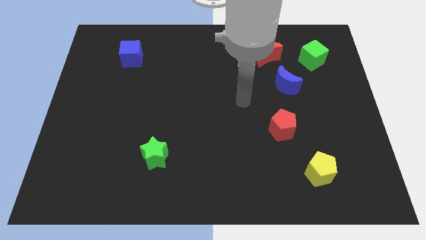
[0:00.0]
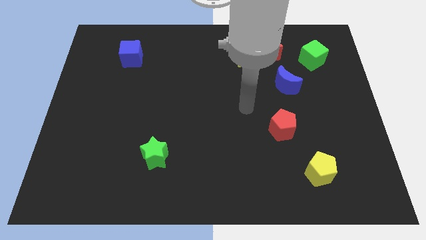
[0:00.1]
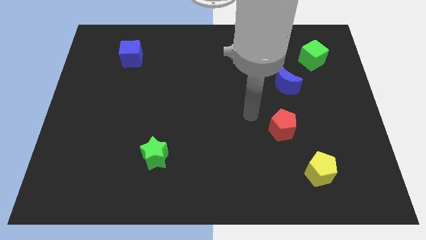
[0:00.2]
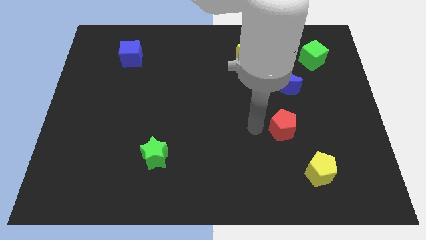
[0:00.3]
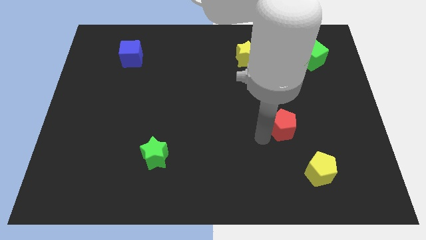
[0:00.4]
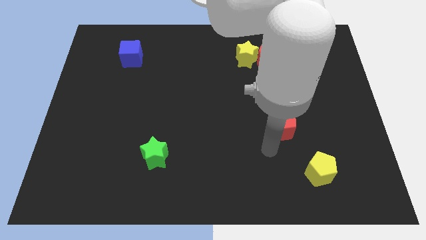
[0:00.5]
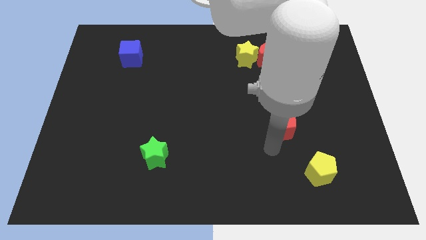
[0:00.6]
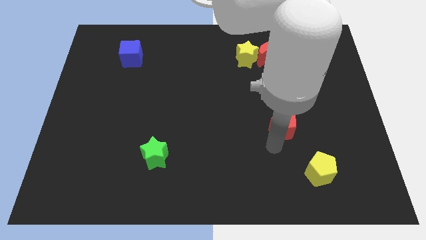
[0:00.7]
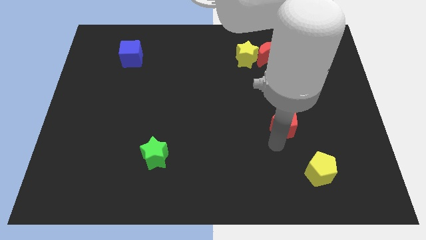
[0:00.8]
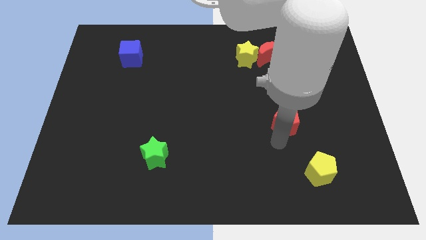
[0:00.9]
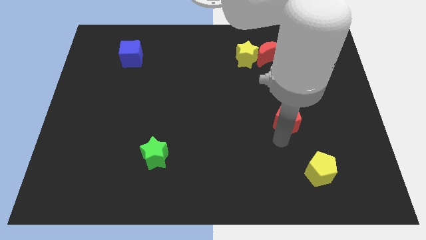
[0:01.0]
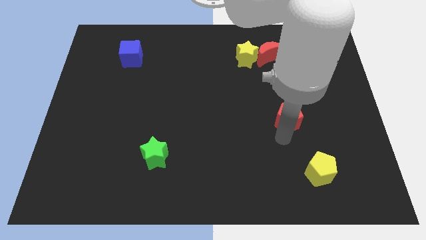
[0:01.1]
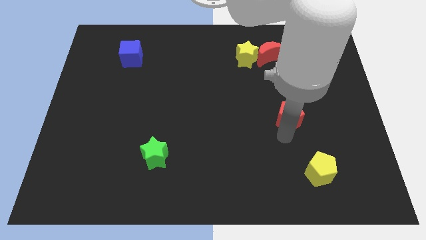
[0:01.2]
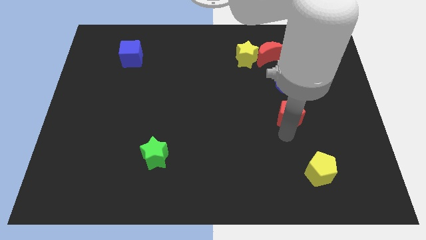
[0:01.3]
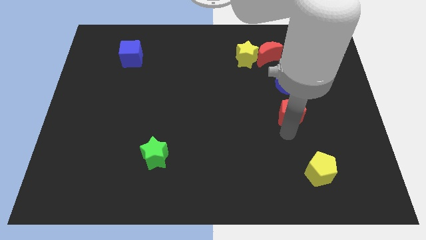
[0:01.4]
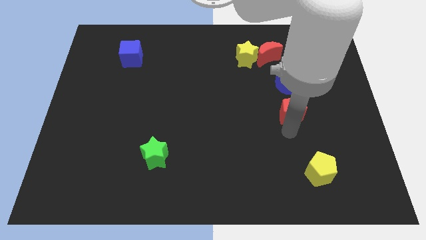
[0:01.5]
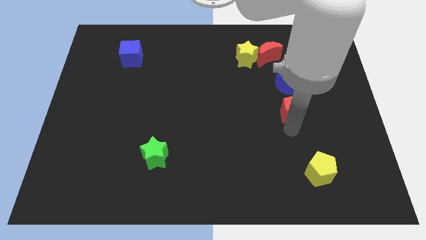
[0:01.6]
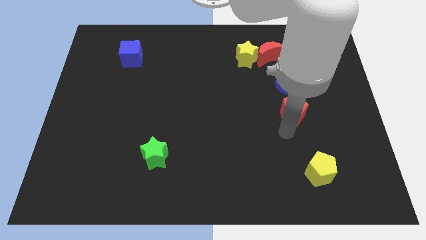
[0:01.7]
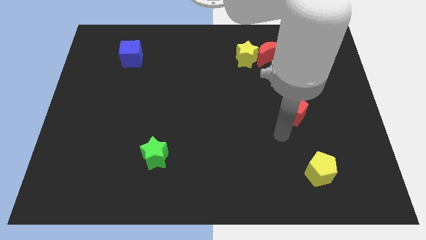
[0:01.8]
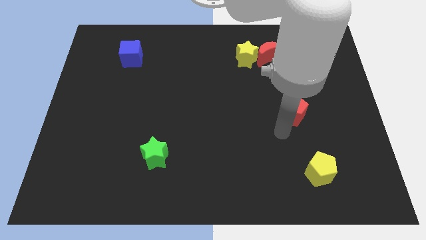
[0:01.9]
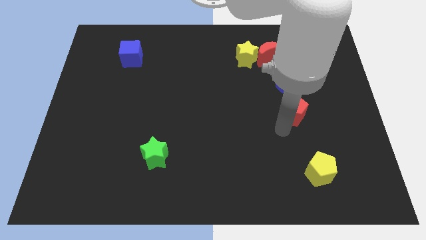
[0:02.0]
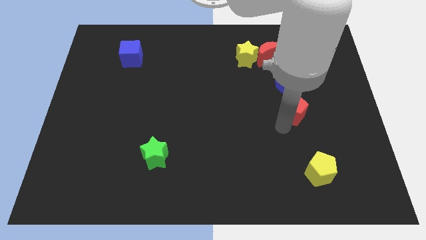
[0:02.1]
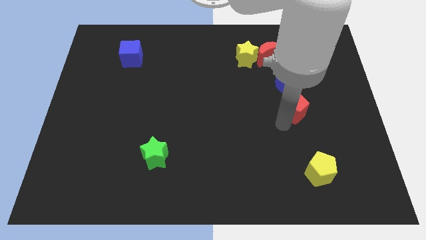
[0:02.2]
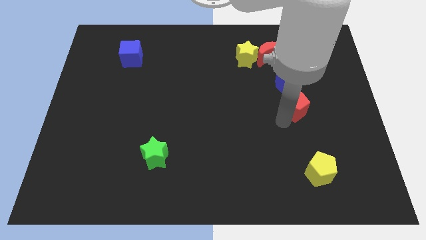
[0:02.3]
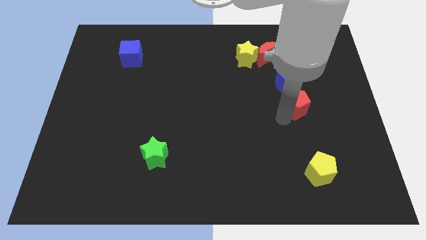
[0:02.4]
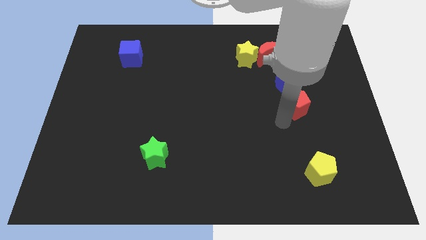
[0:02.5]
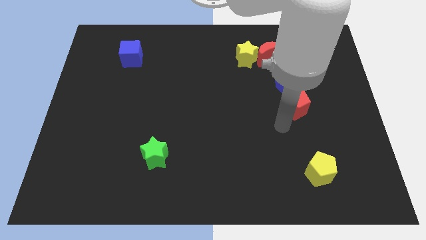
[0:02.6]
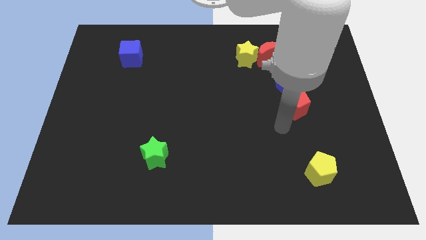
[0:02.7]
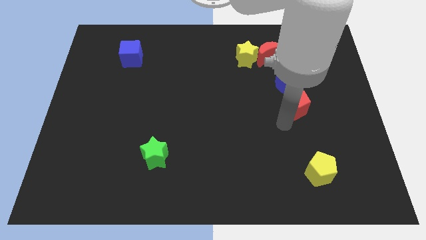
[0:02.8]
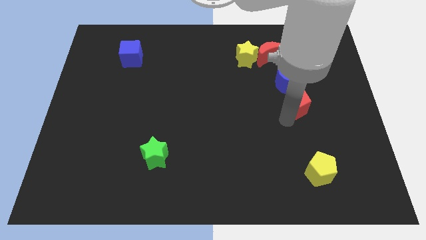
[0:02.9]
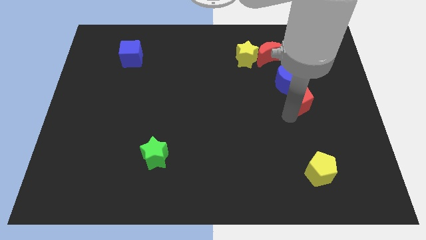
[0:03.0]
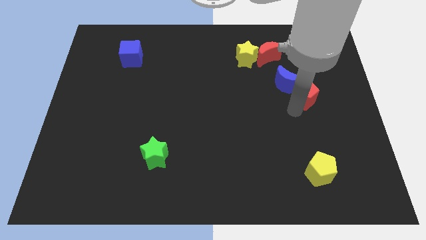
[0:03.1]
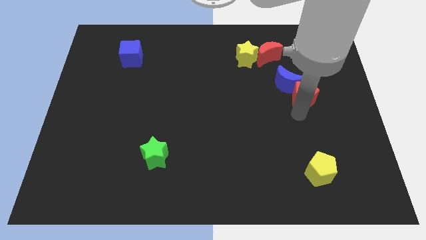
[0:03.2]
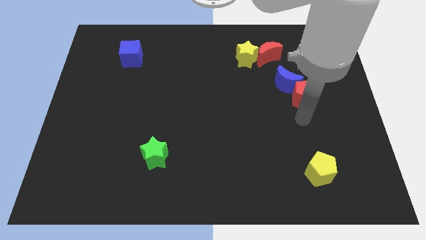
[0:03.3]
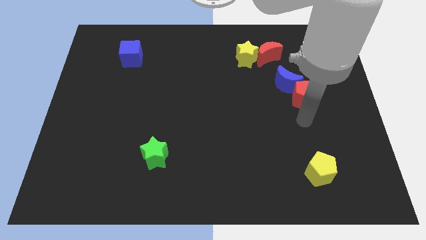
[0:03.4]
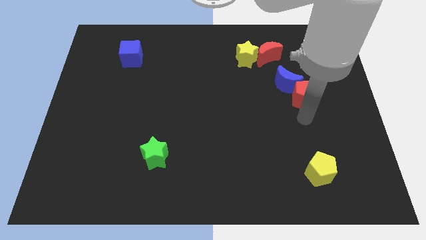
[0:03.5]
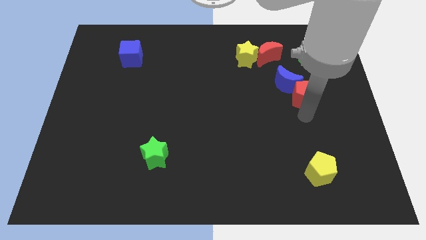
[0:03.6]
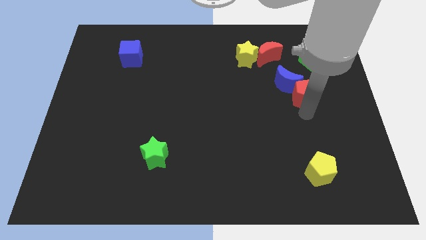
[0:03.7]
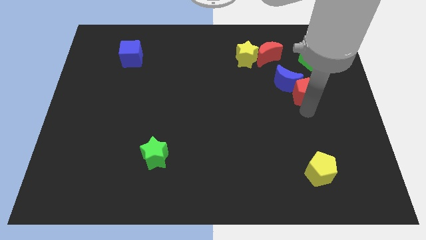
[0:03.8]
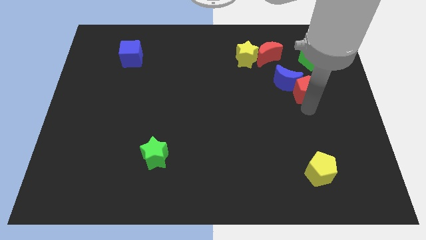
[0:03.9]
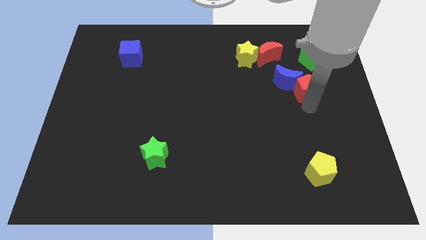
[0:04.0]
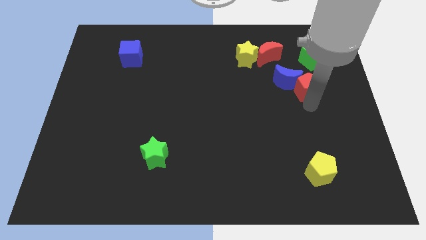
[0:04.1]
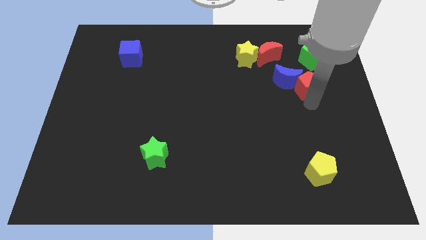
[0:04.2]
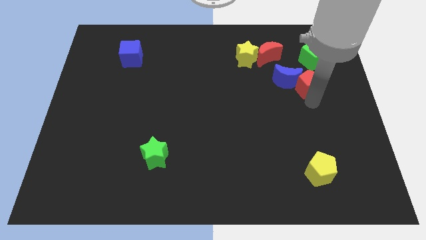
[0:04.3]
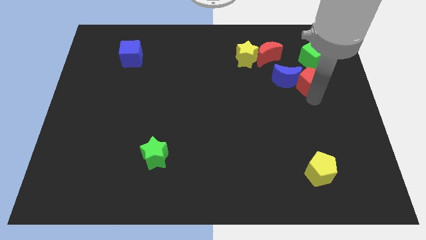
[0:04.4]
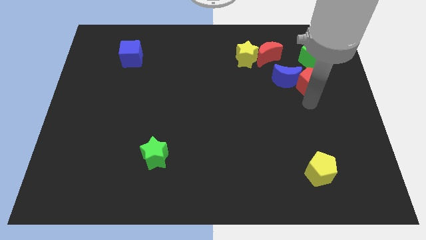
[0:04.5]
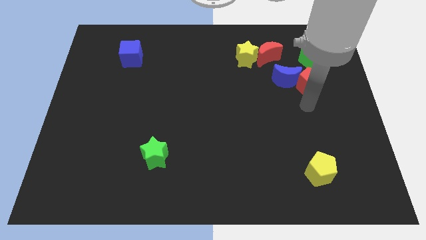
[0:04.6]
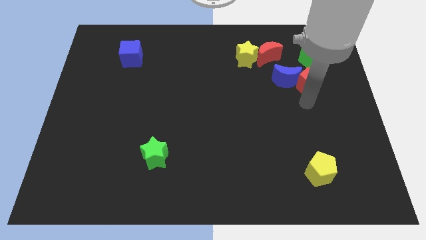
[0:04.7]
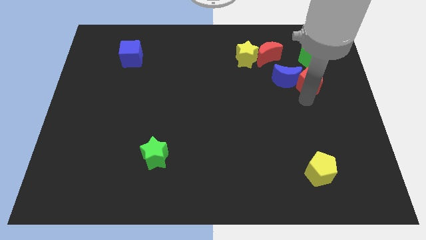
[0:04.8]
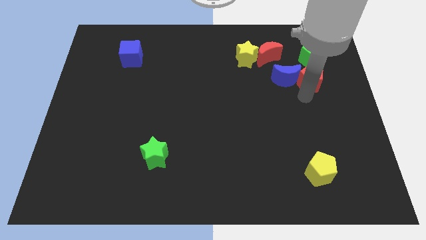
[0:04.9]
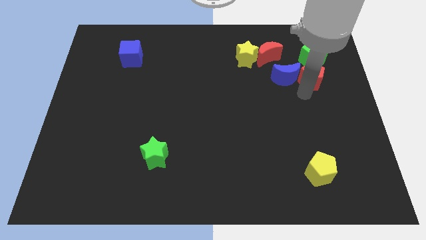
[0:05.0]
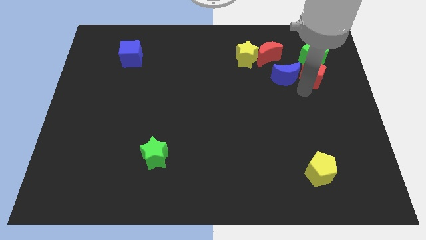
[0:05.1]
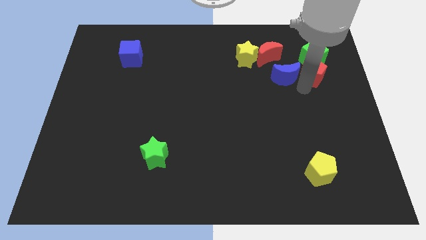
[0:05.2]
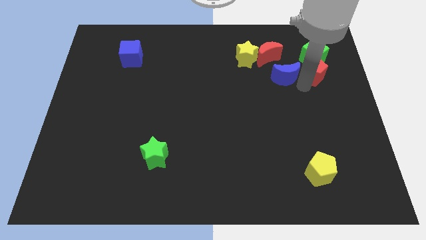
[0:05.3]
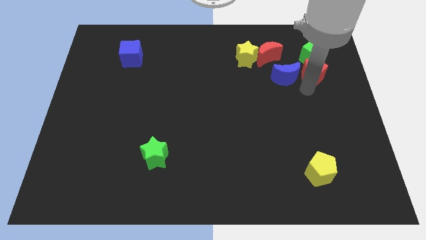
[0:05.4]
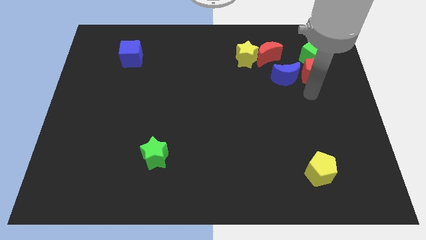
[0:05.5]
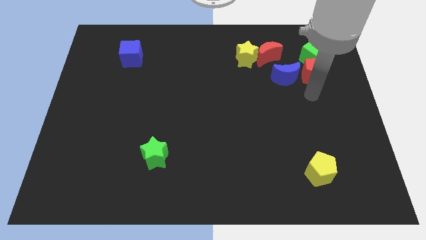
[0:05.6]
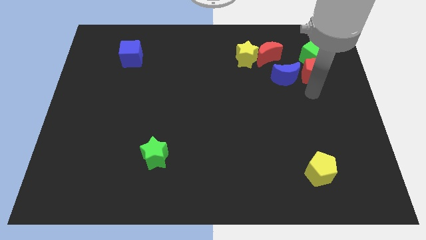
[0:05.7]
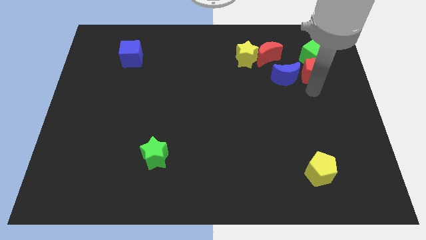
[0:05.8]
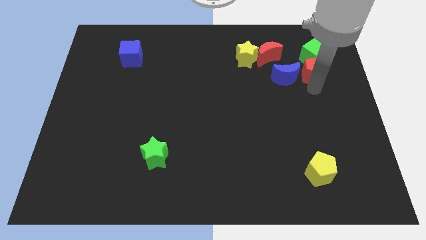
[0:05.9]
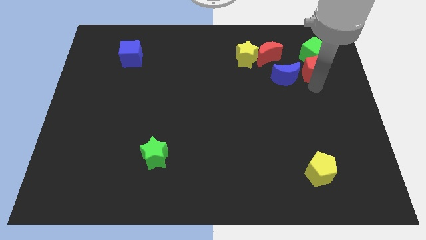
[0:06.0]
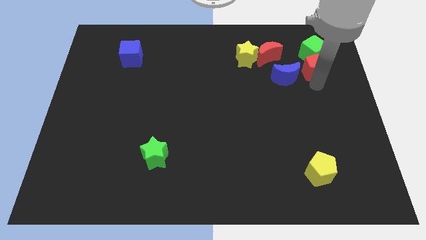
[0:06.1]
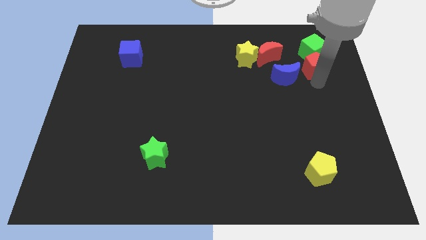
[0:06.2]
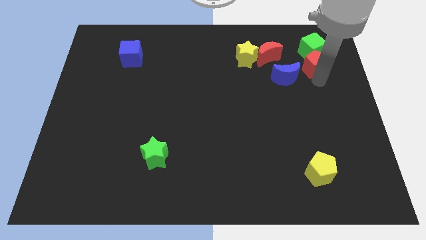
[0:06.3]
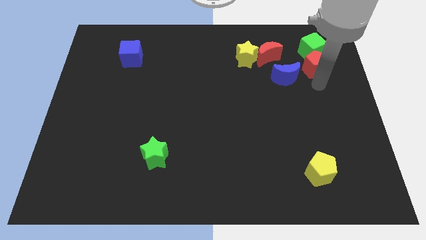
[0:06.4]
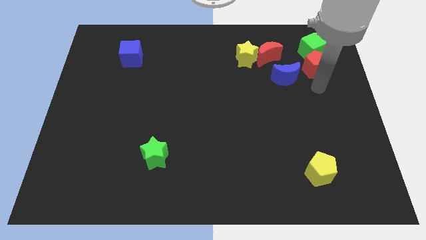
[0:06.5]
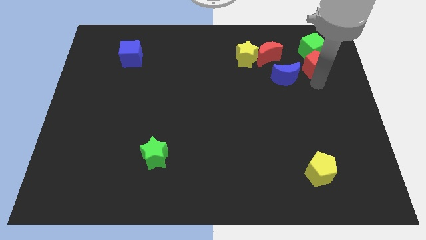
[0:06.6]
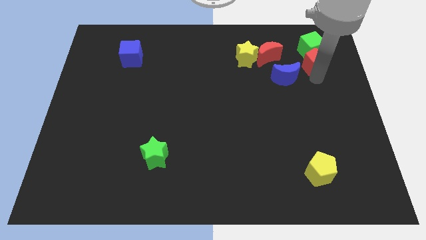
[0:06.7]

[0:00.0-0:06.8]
push the red pentagon close to the green cube

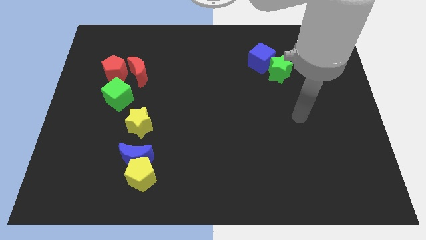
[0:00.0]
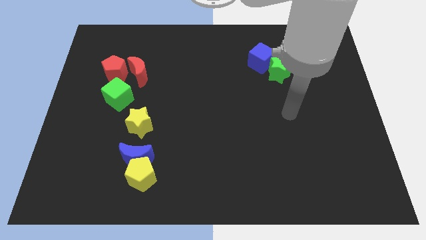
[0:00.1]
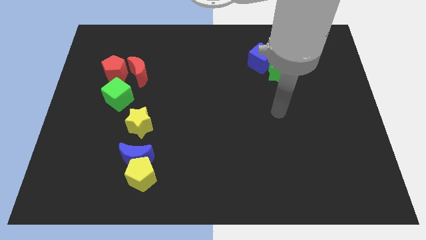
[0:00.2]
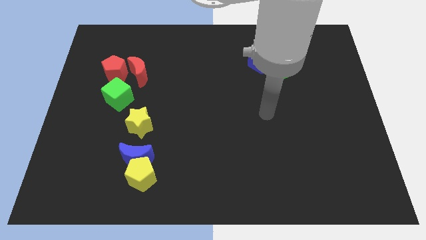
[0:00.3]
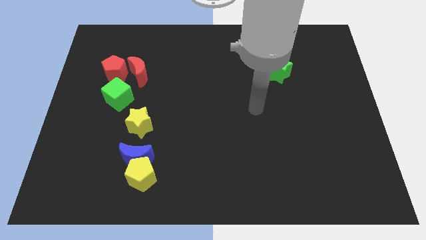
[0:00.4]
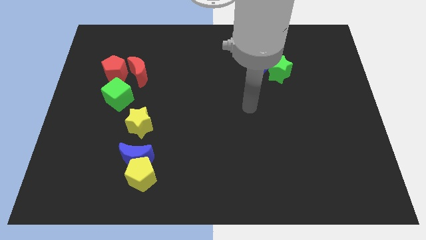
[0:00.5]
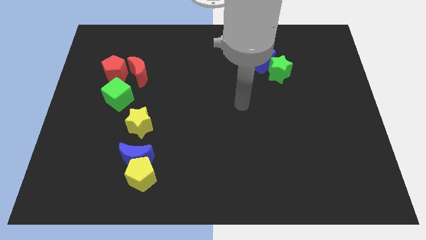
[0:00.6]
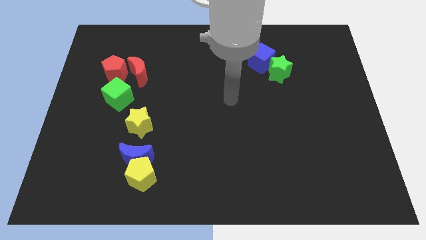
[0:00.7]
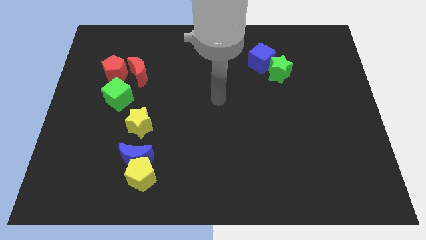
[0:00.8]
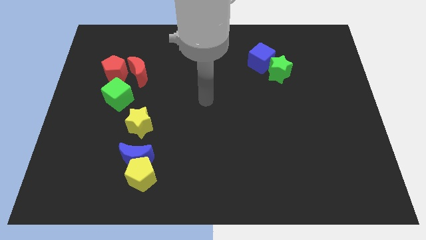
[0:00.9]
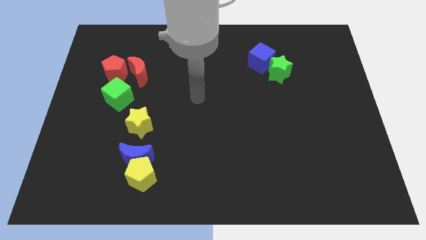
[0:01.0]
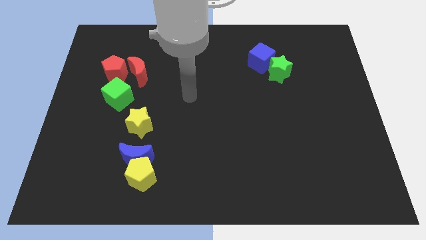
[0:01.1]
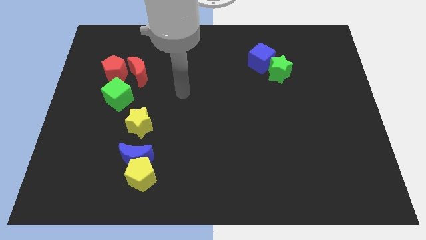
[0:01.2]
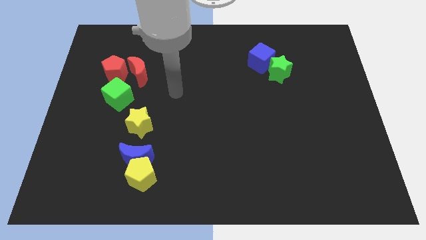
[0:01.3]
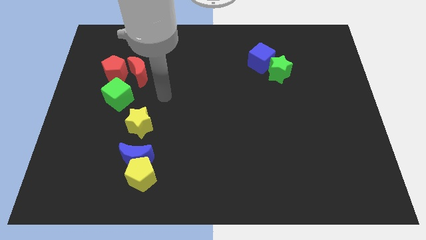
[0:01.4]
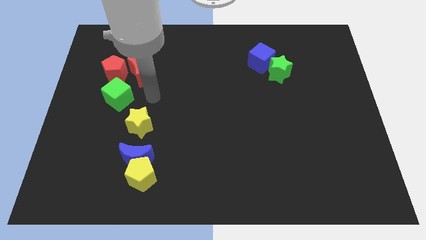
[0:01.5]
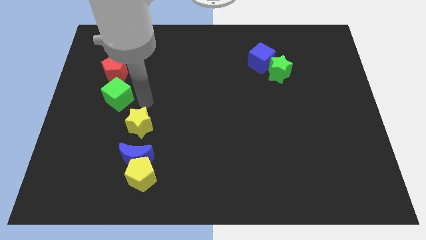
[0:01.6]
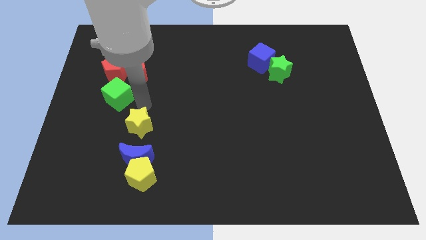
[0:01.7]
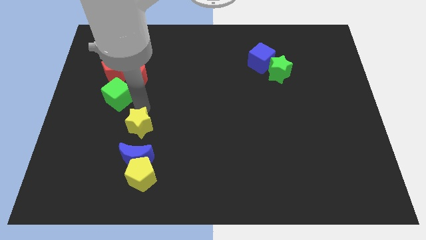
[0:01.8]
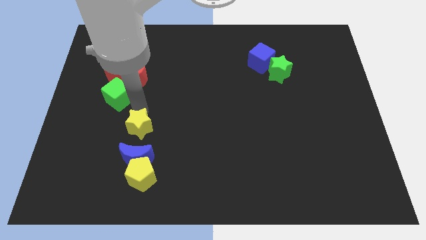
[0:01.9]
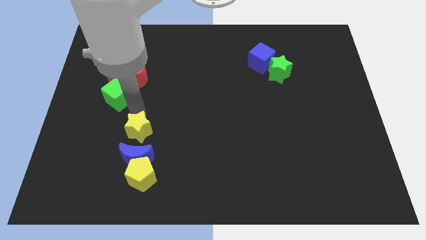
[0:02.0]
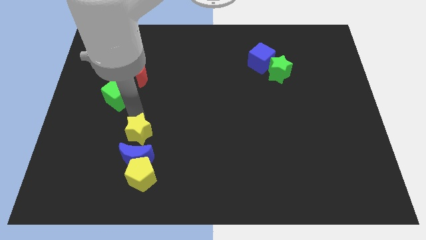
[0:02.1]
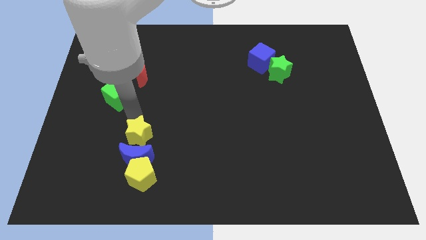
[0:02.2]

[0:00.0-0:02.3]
slide the yellow star to the blue moon
